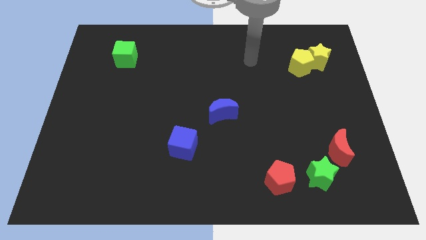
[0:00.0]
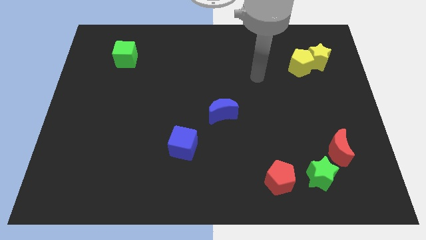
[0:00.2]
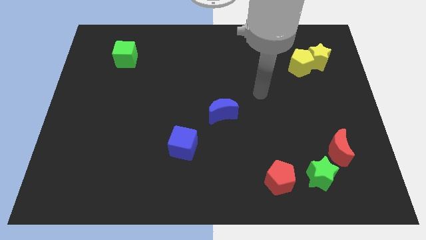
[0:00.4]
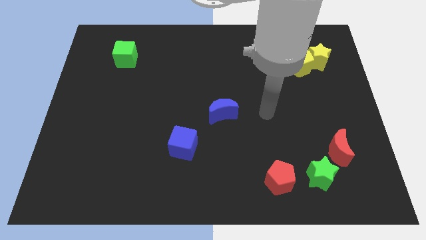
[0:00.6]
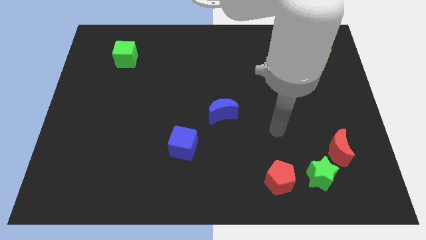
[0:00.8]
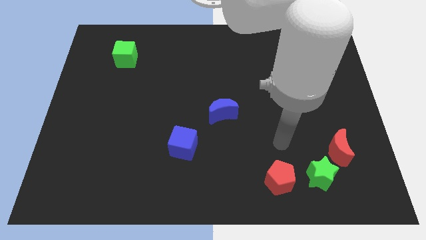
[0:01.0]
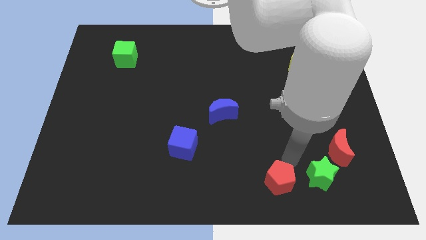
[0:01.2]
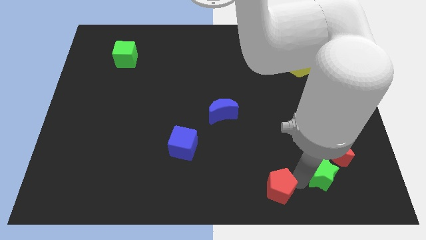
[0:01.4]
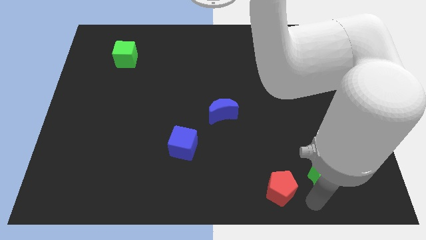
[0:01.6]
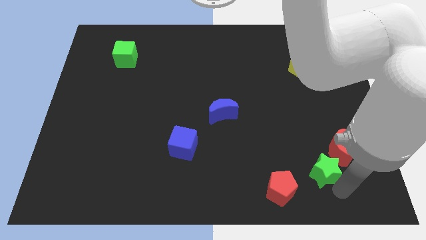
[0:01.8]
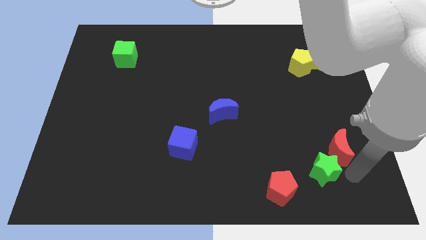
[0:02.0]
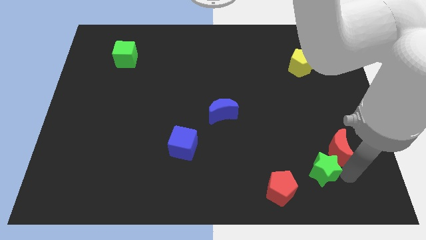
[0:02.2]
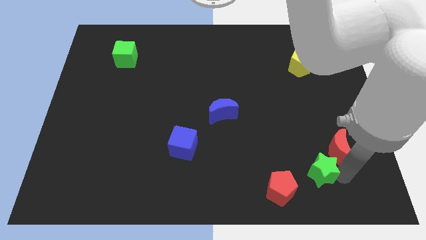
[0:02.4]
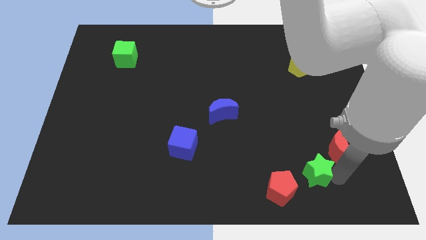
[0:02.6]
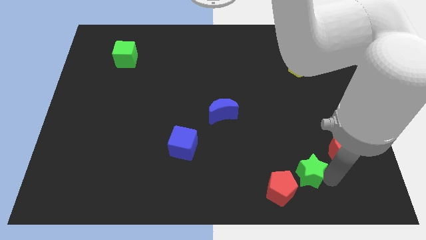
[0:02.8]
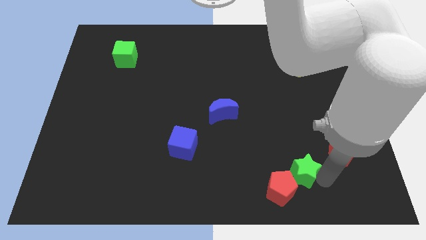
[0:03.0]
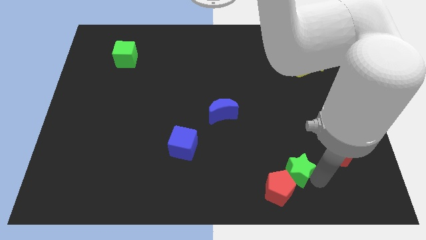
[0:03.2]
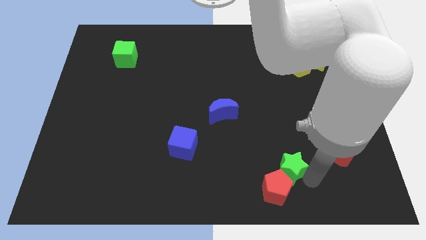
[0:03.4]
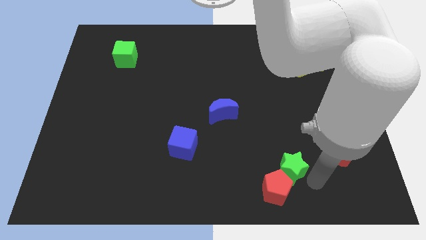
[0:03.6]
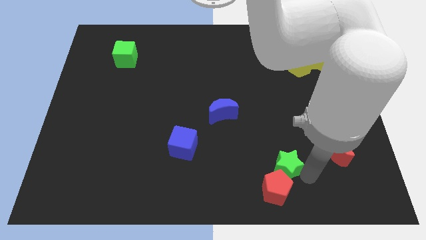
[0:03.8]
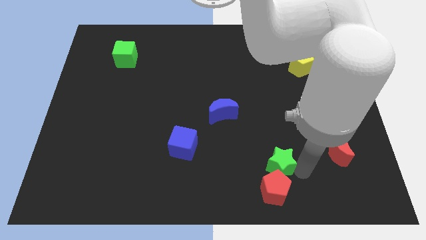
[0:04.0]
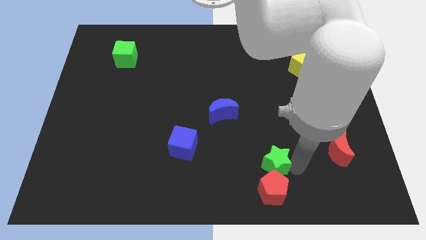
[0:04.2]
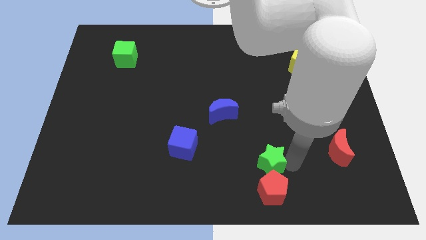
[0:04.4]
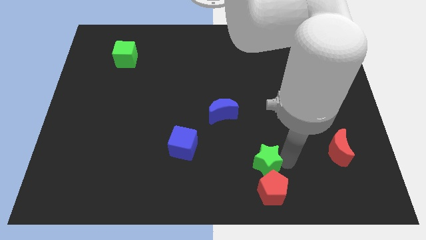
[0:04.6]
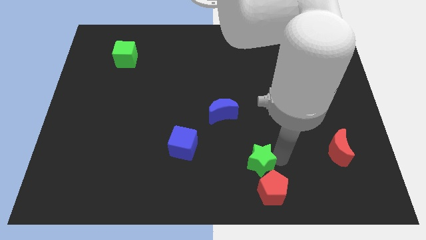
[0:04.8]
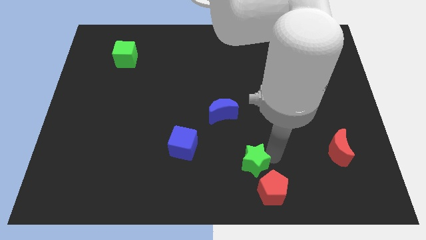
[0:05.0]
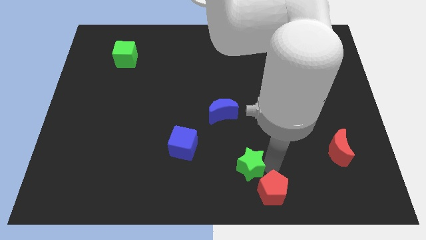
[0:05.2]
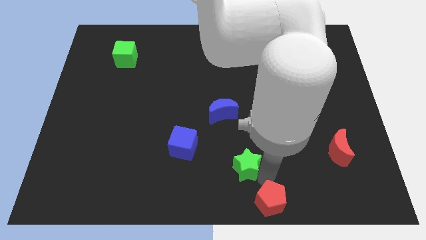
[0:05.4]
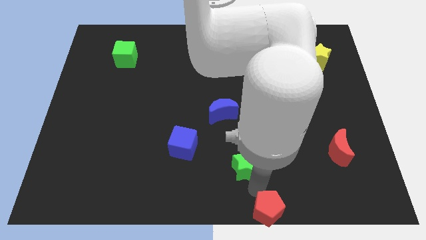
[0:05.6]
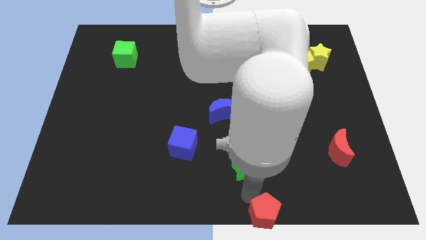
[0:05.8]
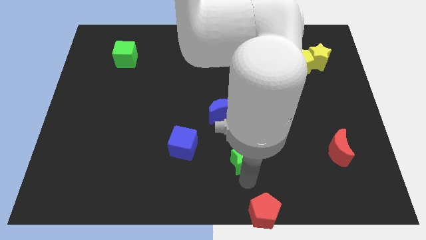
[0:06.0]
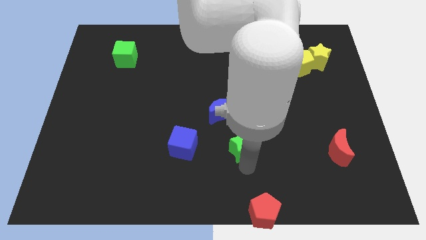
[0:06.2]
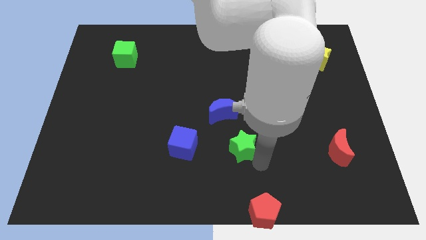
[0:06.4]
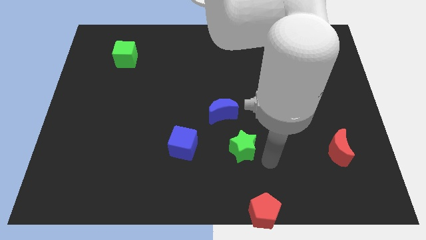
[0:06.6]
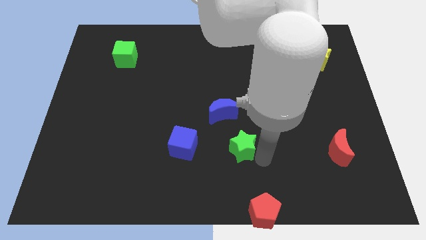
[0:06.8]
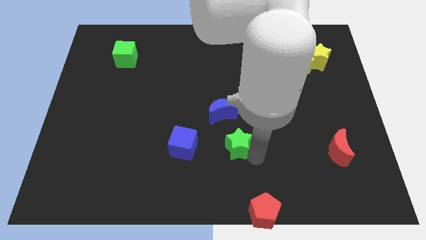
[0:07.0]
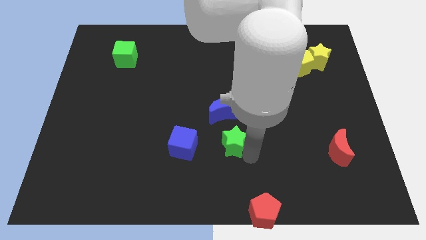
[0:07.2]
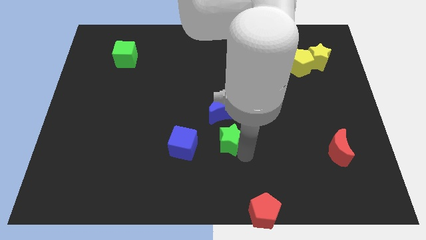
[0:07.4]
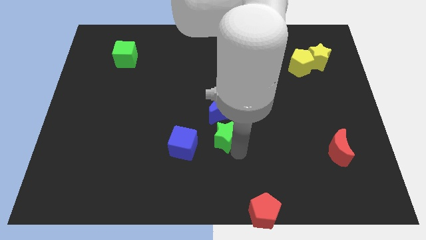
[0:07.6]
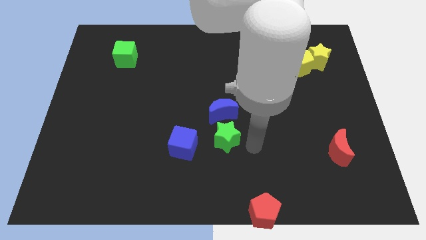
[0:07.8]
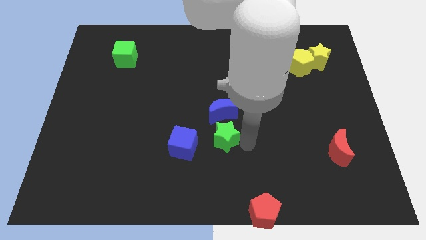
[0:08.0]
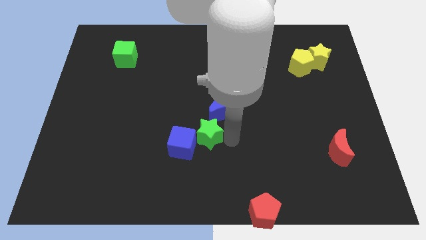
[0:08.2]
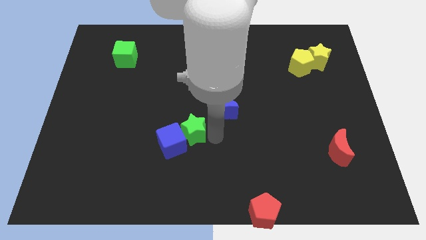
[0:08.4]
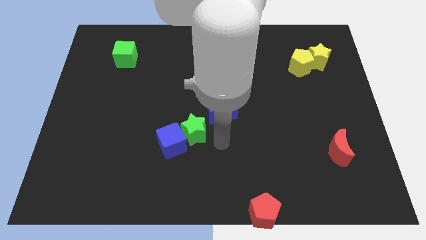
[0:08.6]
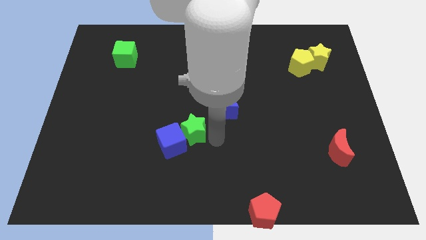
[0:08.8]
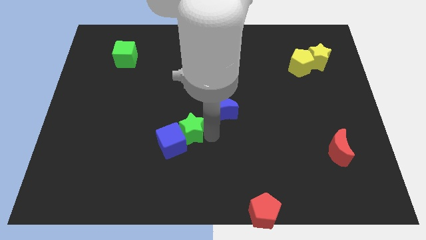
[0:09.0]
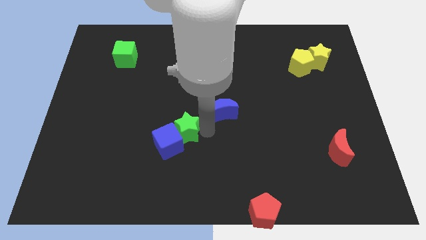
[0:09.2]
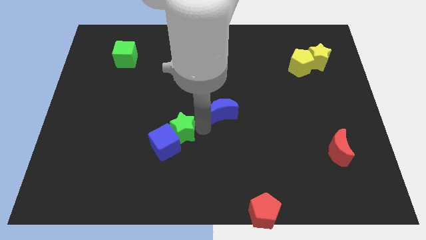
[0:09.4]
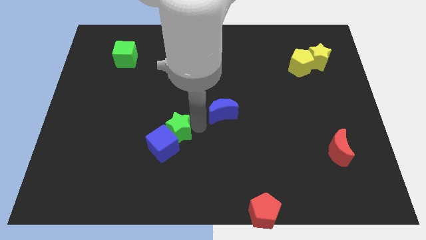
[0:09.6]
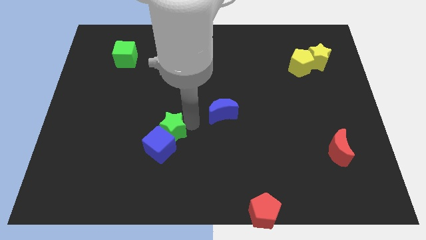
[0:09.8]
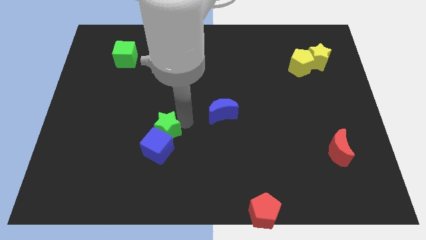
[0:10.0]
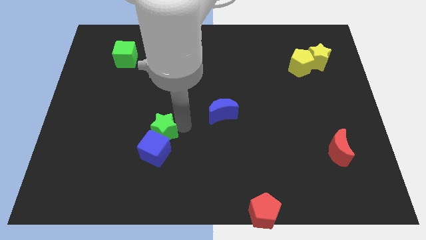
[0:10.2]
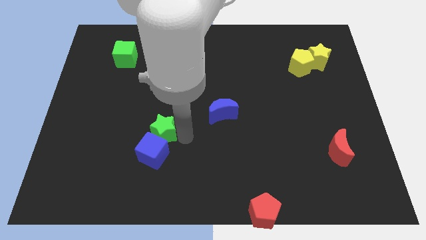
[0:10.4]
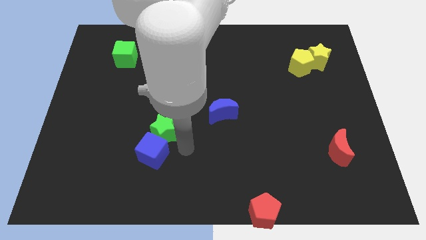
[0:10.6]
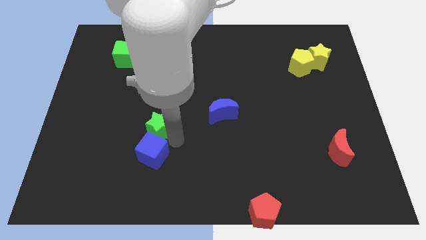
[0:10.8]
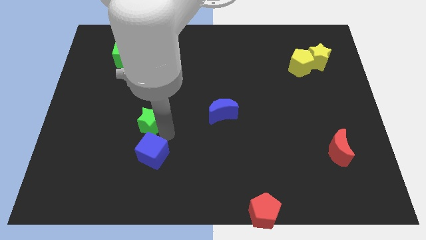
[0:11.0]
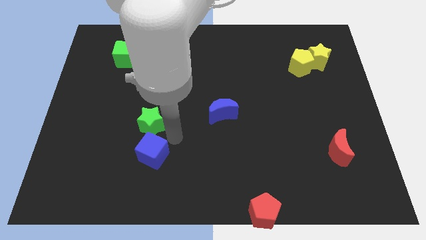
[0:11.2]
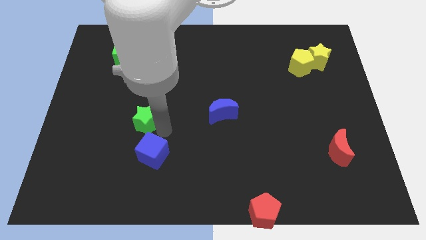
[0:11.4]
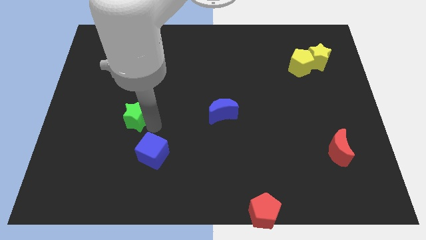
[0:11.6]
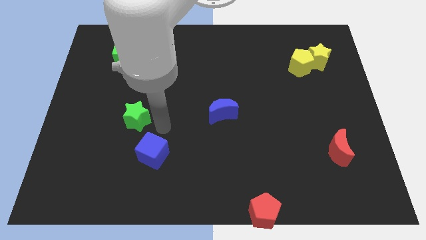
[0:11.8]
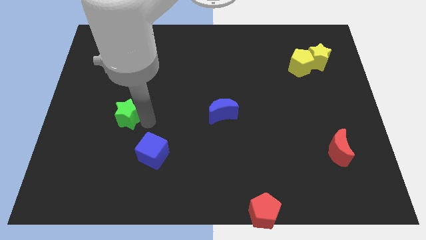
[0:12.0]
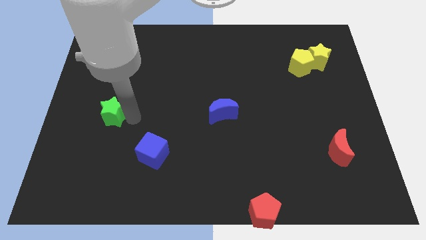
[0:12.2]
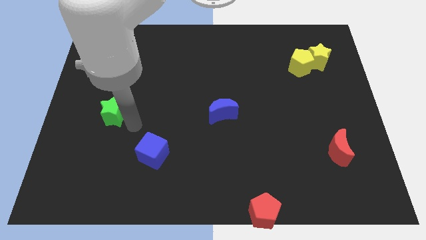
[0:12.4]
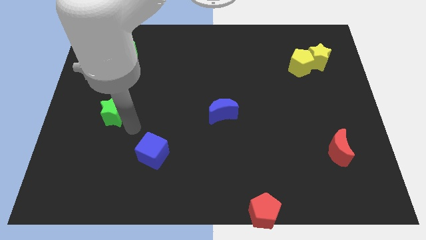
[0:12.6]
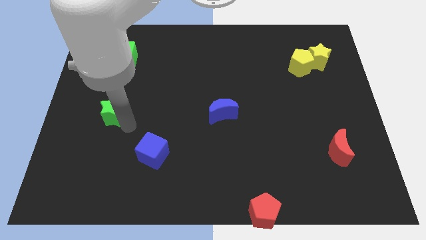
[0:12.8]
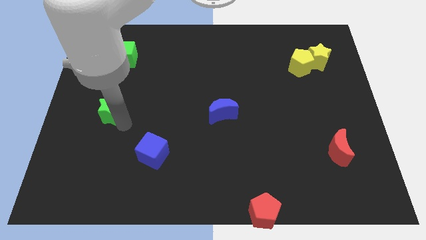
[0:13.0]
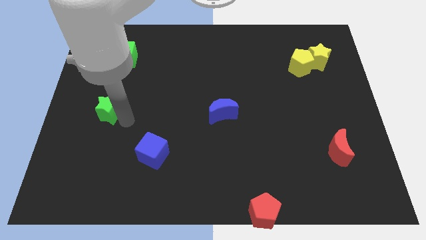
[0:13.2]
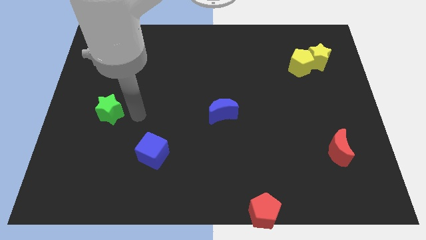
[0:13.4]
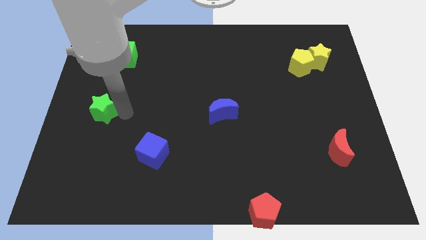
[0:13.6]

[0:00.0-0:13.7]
push the green star to the left side
